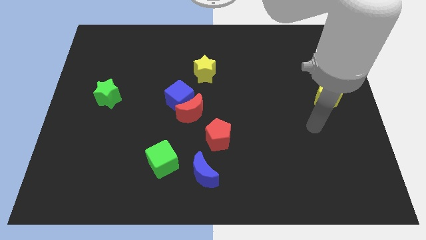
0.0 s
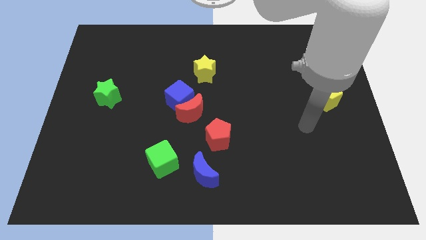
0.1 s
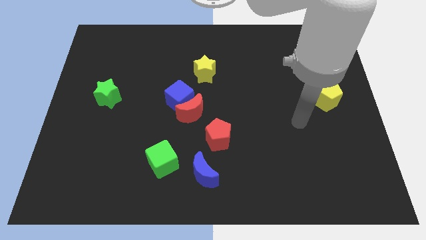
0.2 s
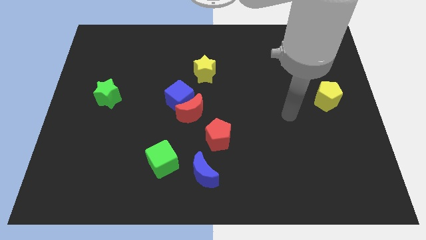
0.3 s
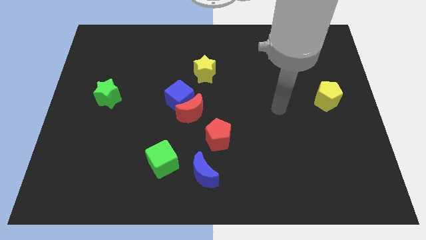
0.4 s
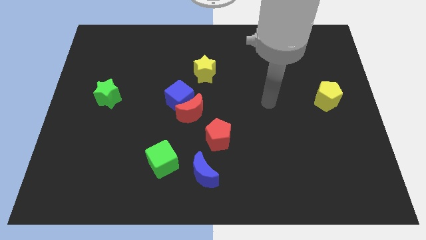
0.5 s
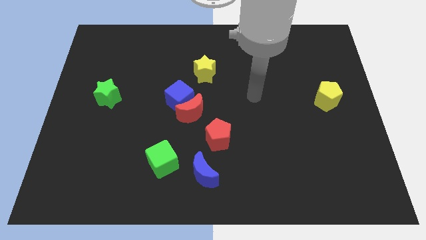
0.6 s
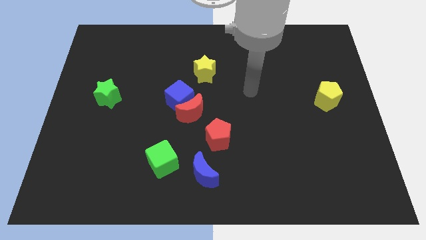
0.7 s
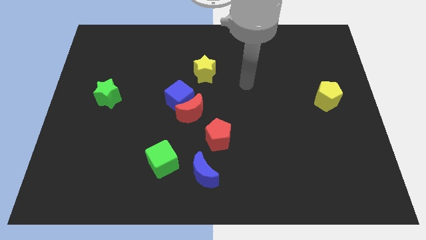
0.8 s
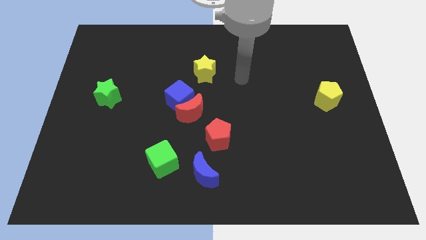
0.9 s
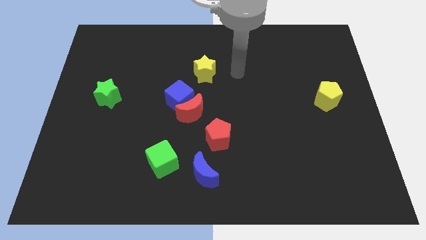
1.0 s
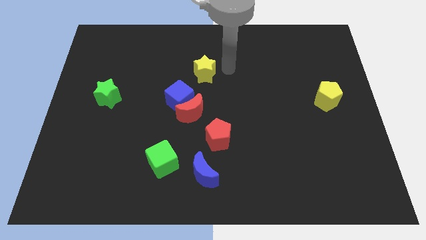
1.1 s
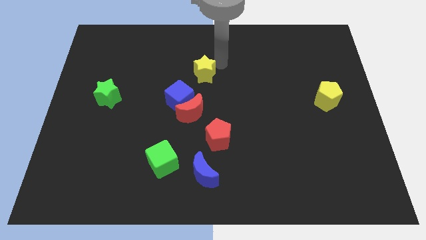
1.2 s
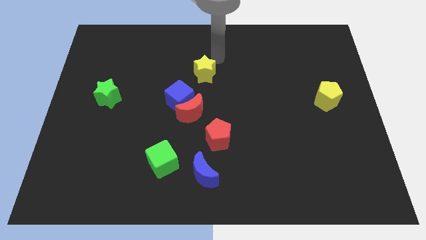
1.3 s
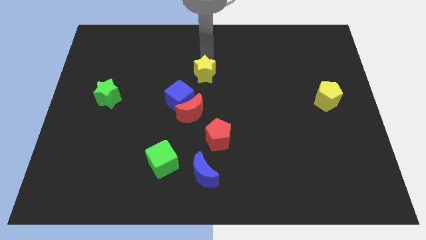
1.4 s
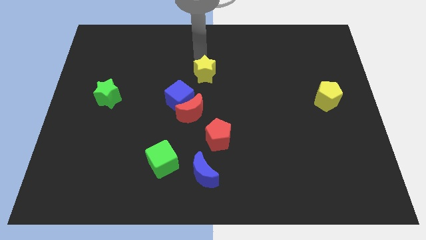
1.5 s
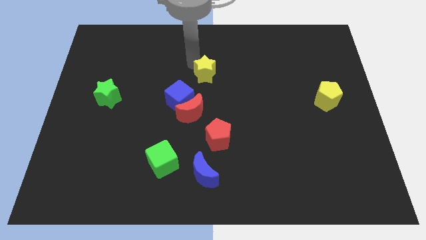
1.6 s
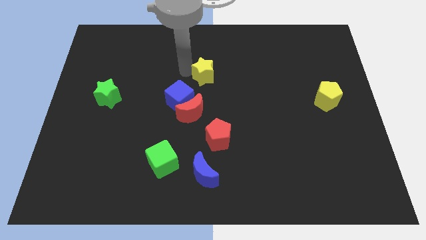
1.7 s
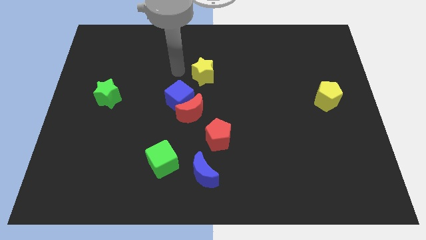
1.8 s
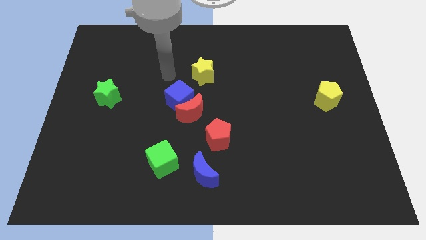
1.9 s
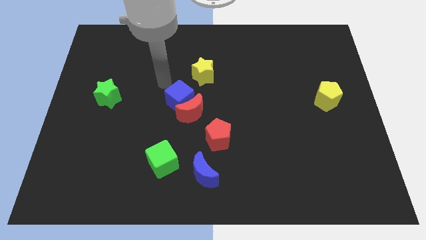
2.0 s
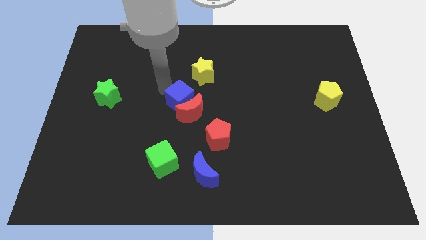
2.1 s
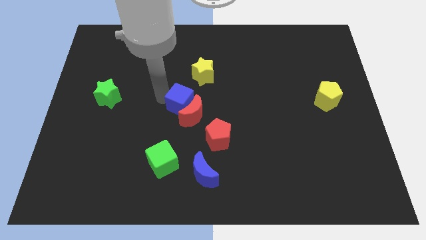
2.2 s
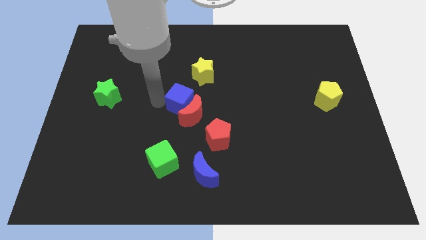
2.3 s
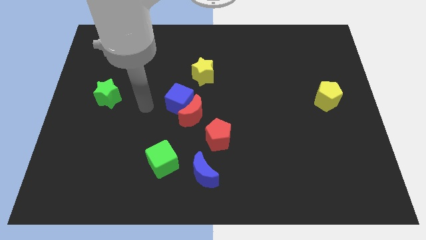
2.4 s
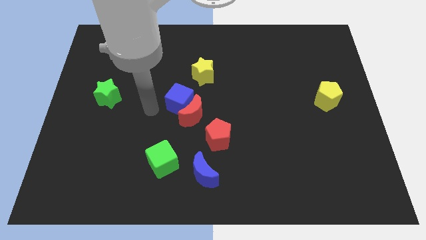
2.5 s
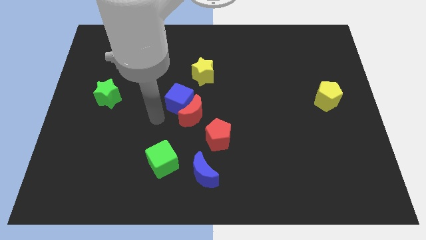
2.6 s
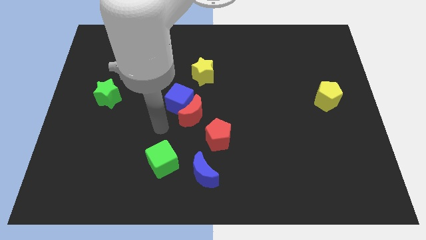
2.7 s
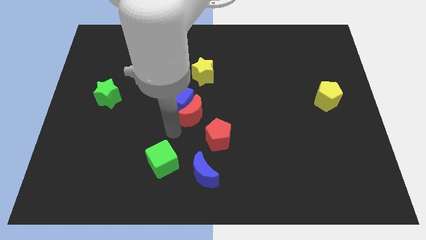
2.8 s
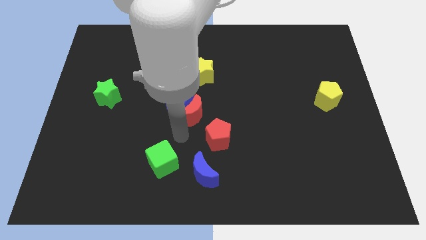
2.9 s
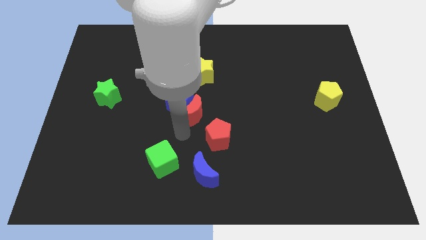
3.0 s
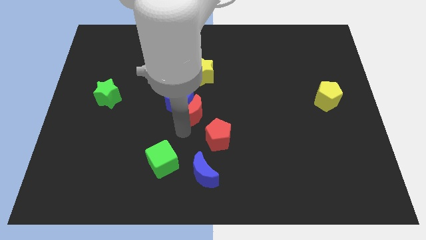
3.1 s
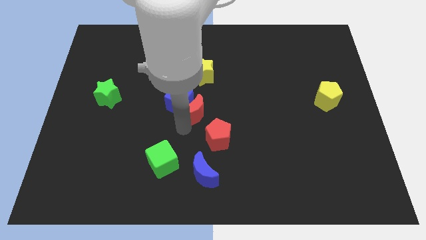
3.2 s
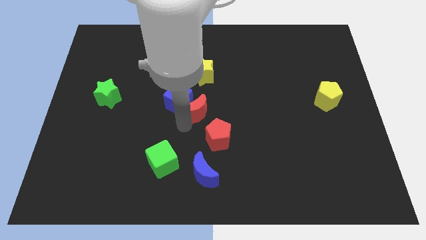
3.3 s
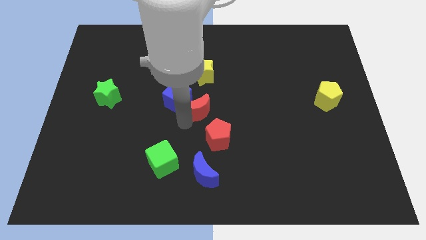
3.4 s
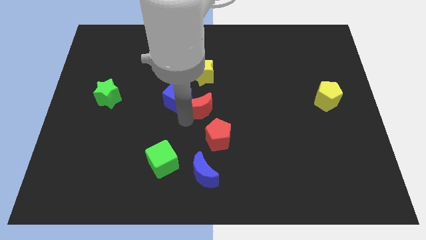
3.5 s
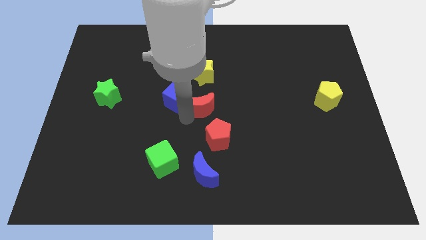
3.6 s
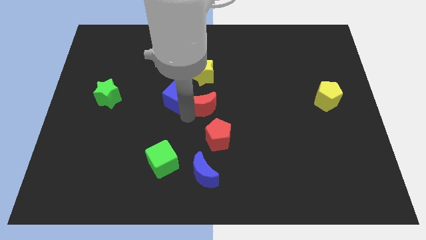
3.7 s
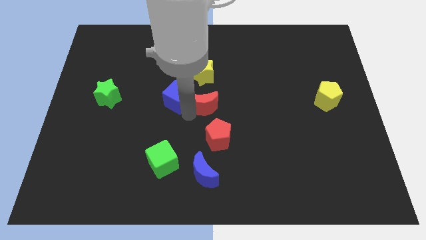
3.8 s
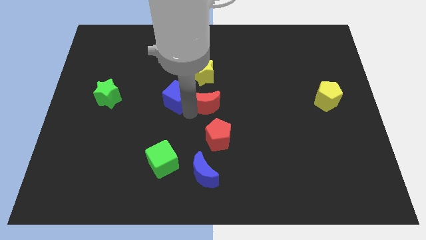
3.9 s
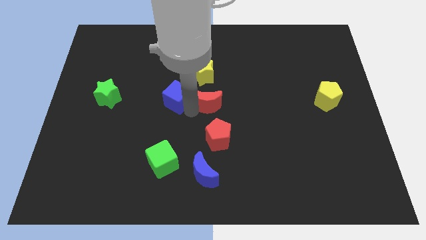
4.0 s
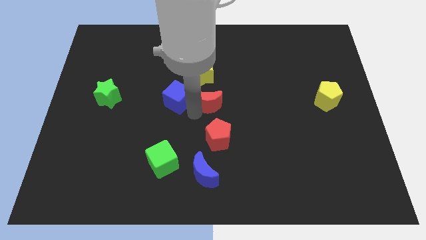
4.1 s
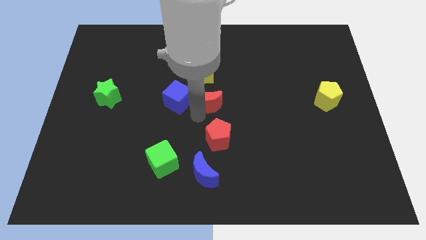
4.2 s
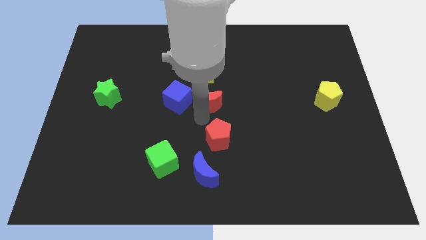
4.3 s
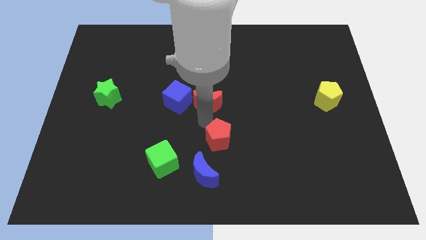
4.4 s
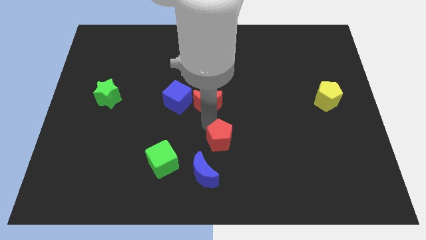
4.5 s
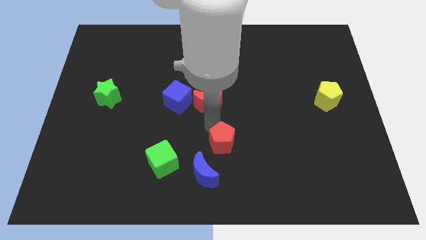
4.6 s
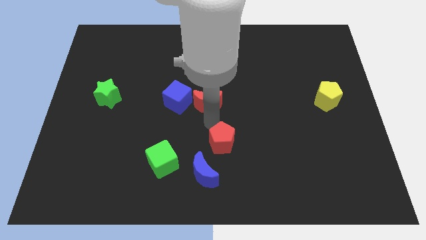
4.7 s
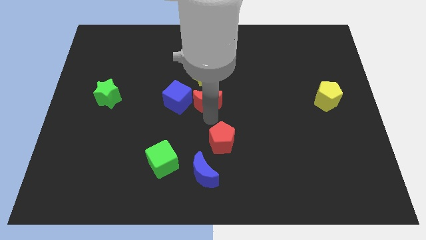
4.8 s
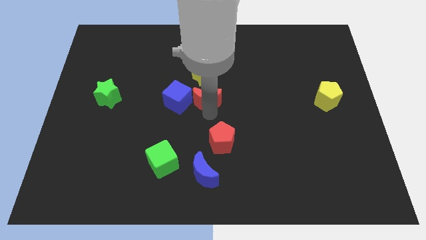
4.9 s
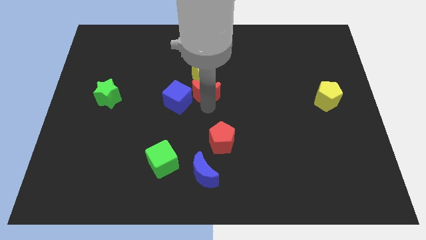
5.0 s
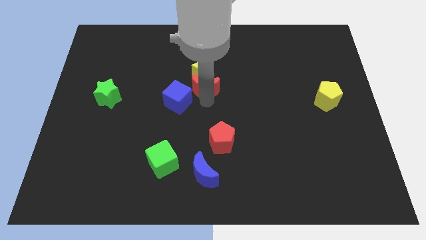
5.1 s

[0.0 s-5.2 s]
push the red moon next to the yellow star

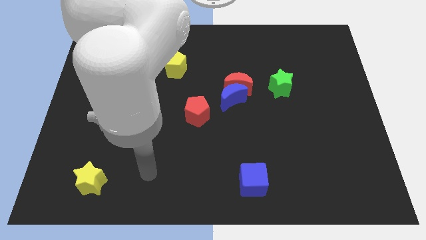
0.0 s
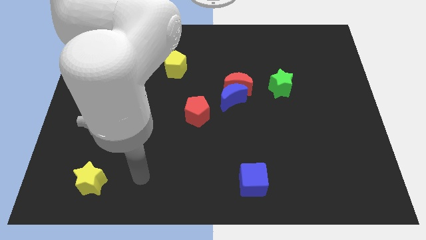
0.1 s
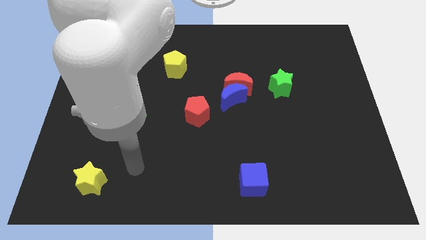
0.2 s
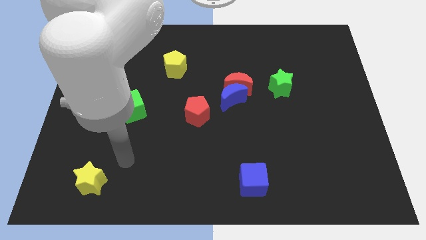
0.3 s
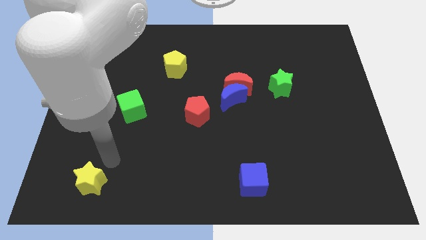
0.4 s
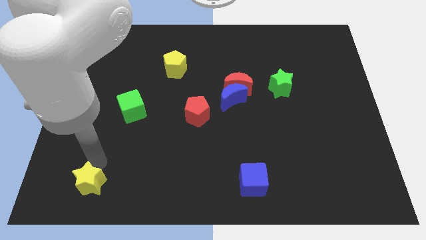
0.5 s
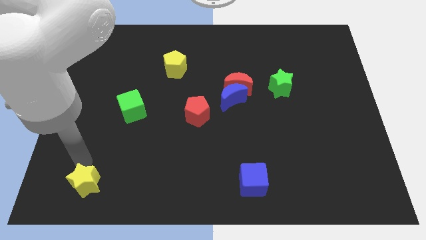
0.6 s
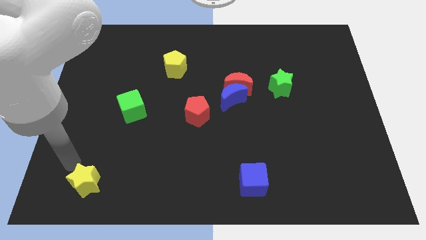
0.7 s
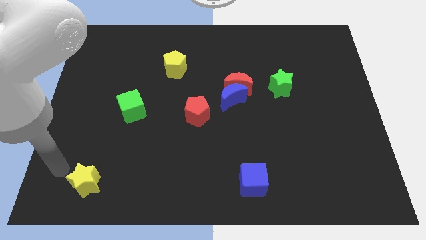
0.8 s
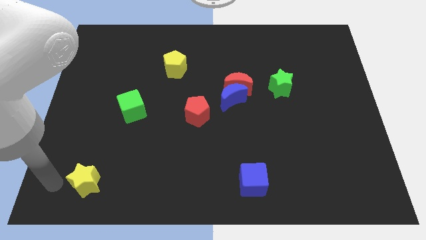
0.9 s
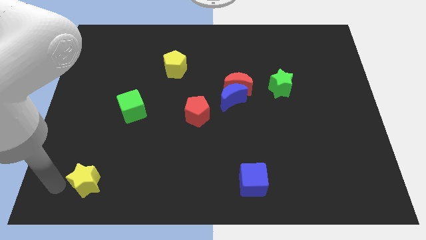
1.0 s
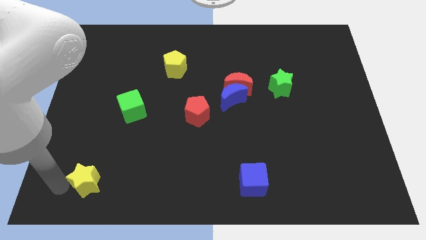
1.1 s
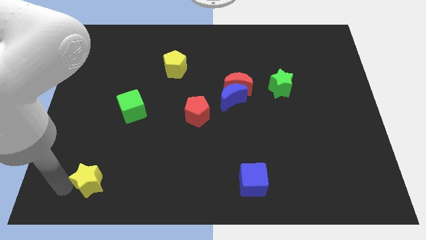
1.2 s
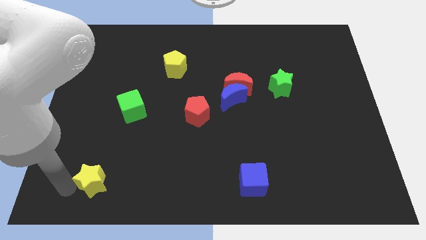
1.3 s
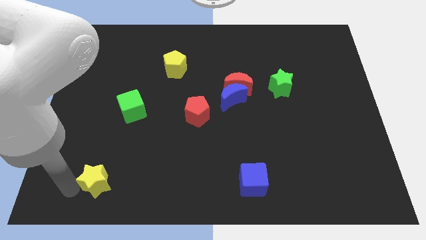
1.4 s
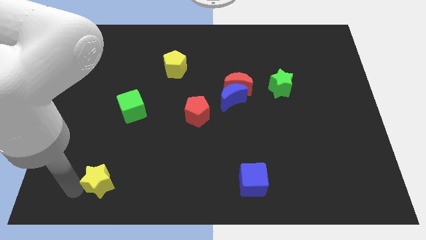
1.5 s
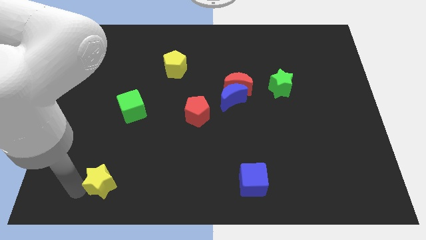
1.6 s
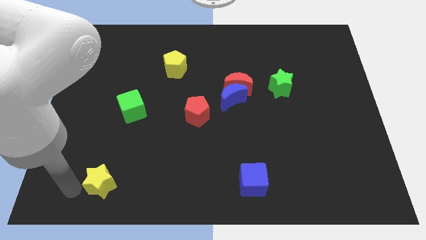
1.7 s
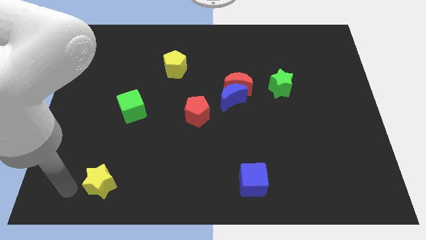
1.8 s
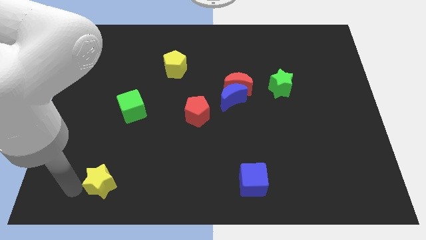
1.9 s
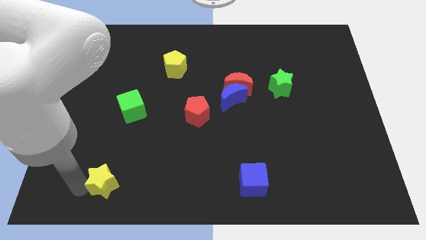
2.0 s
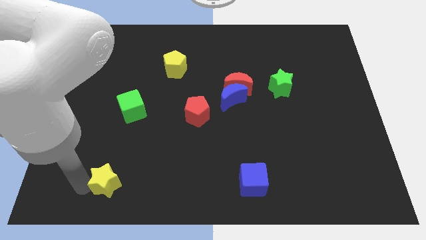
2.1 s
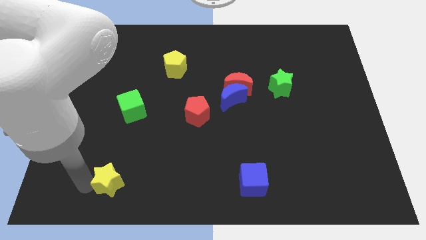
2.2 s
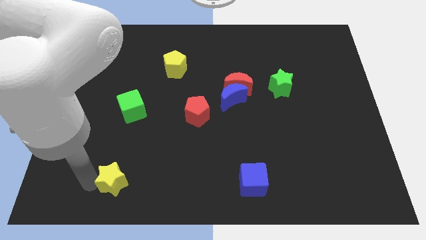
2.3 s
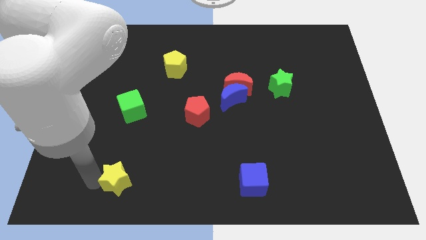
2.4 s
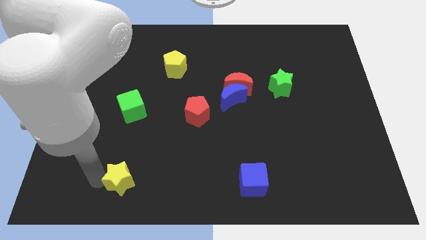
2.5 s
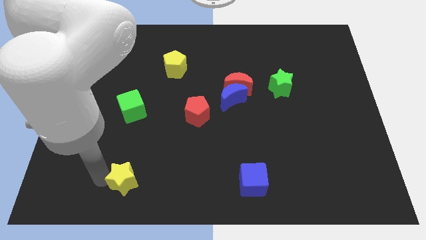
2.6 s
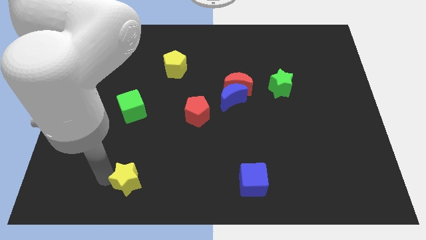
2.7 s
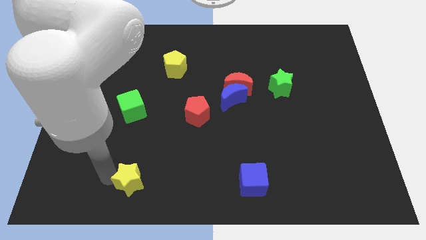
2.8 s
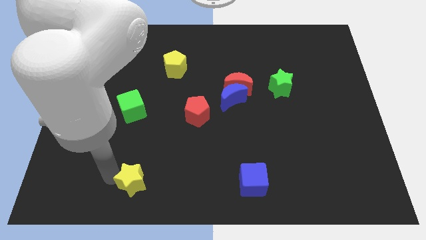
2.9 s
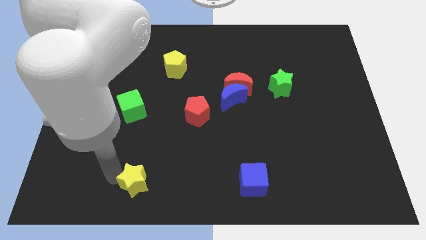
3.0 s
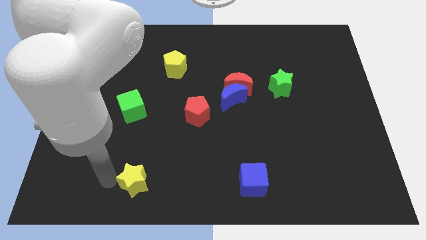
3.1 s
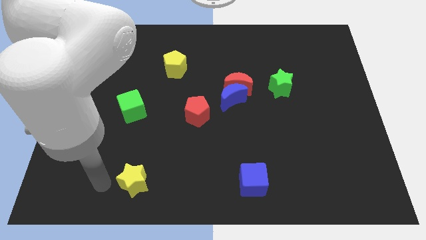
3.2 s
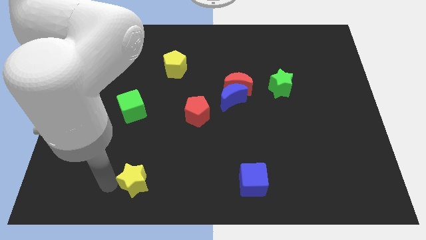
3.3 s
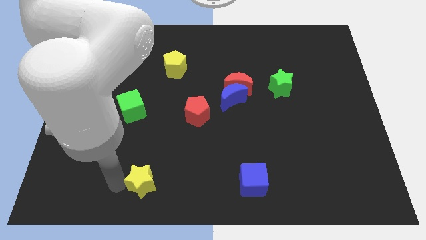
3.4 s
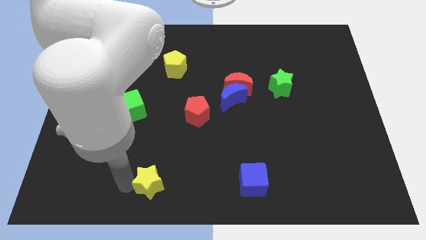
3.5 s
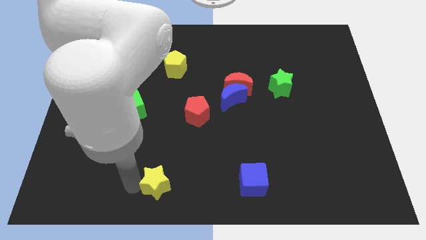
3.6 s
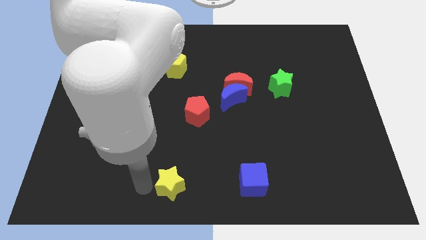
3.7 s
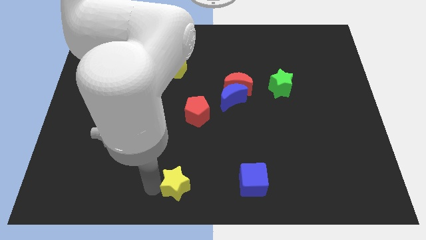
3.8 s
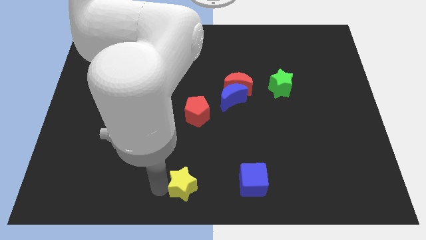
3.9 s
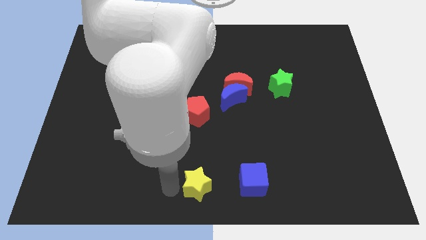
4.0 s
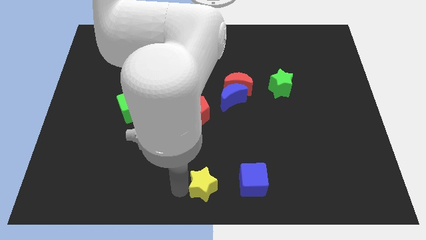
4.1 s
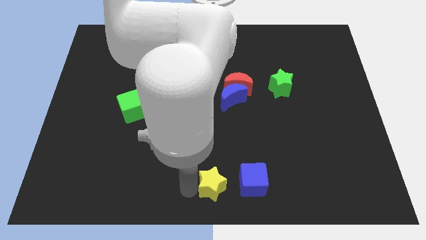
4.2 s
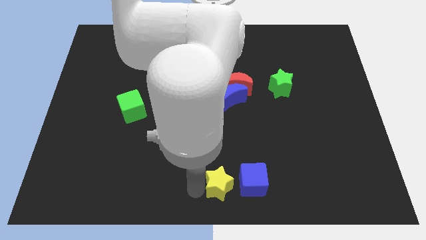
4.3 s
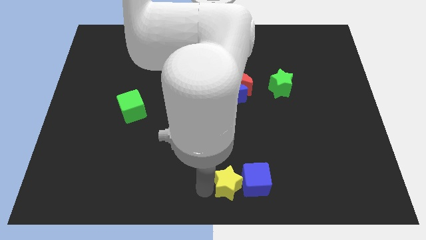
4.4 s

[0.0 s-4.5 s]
put the yellow star next to the blue cube
